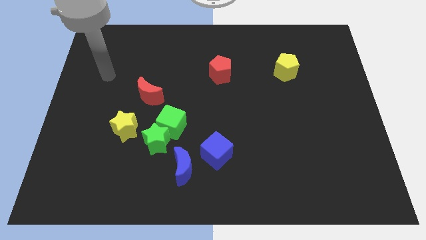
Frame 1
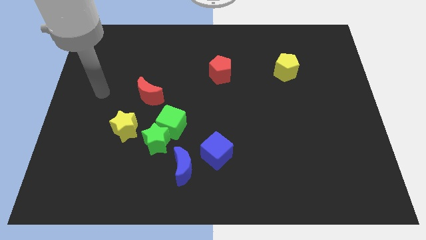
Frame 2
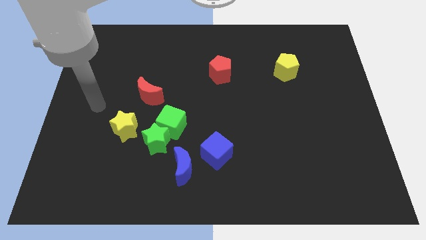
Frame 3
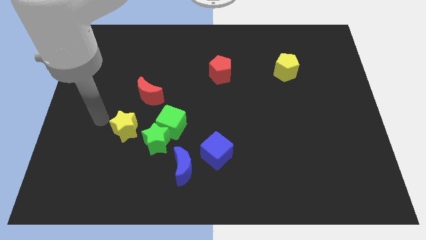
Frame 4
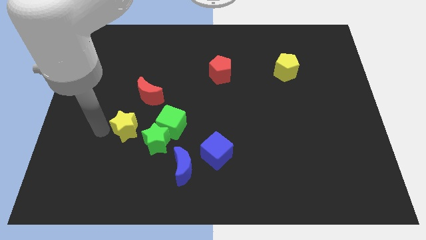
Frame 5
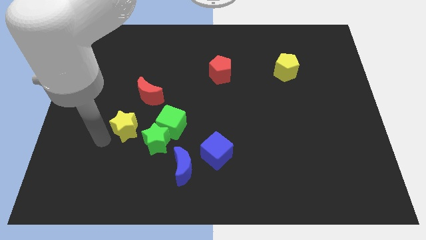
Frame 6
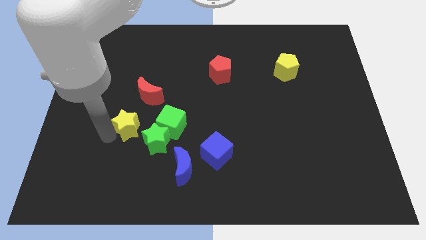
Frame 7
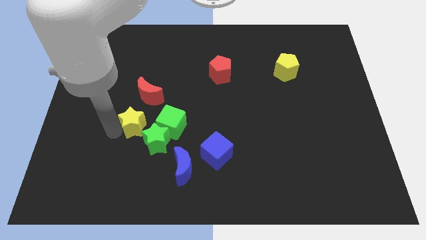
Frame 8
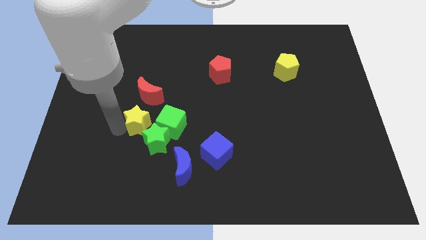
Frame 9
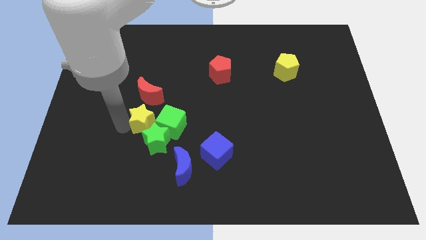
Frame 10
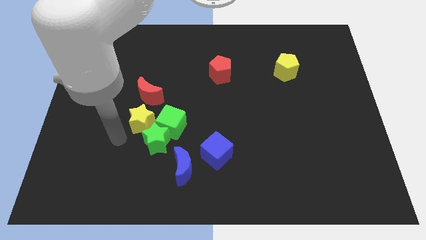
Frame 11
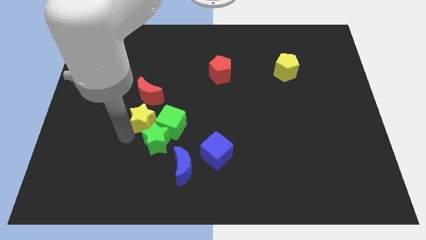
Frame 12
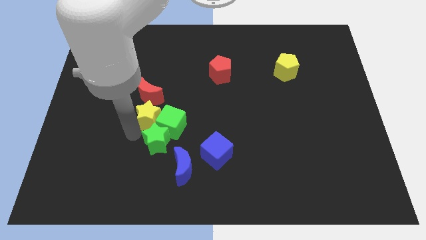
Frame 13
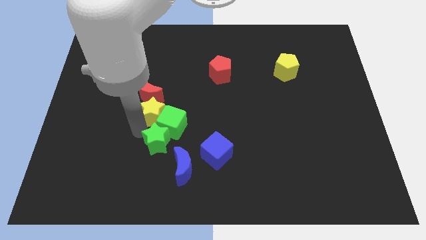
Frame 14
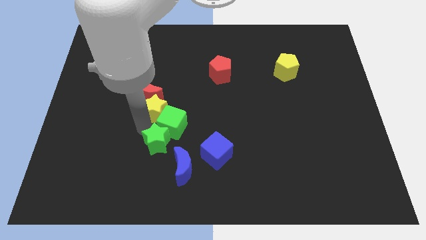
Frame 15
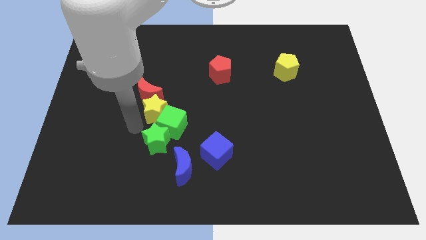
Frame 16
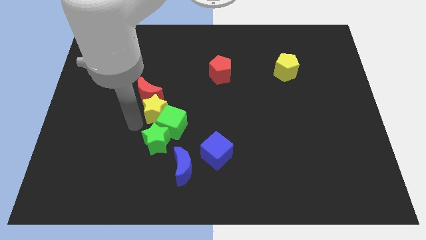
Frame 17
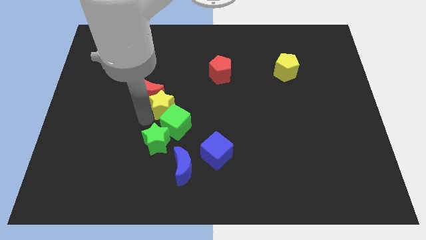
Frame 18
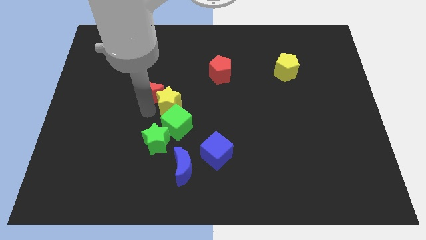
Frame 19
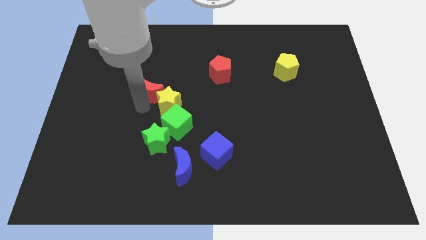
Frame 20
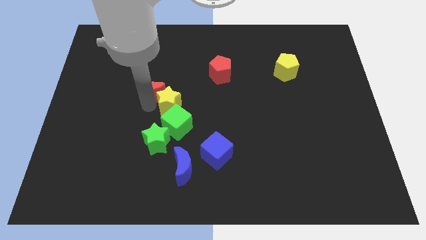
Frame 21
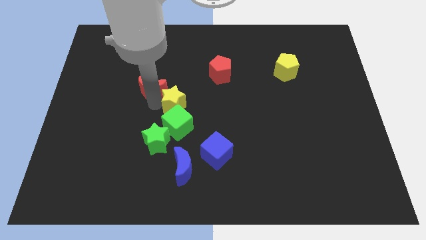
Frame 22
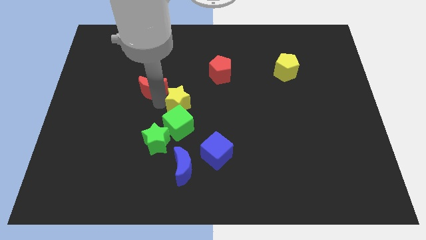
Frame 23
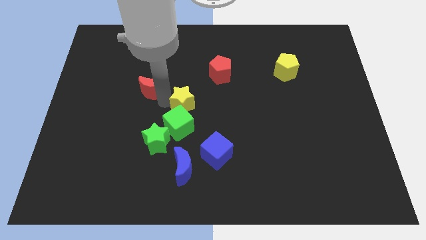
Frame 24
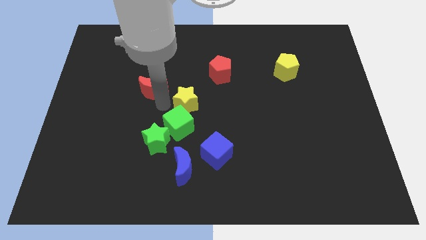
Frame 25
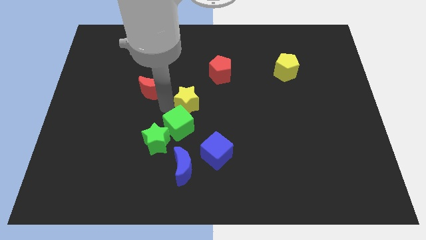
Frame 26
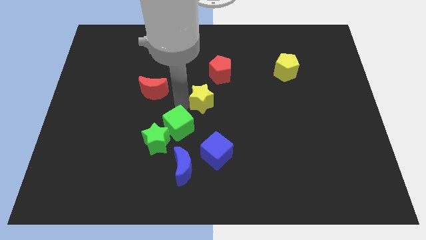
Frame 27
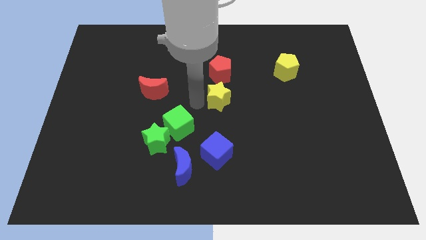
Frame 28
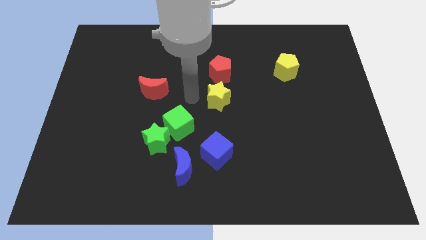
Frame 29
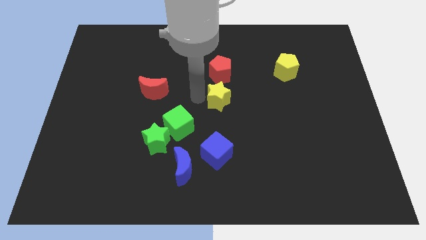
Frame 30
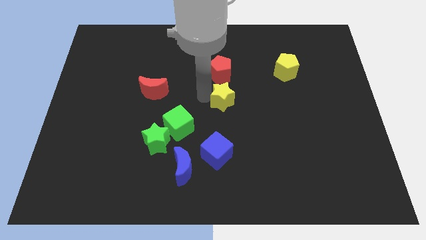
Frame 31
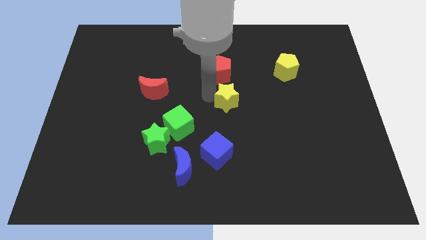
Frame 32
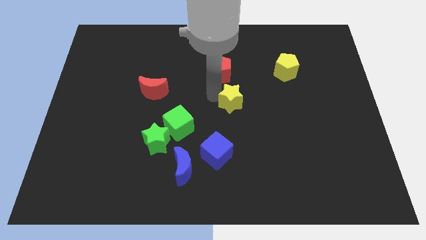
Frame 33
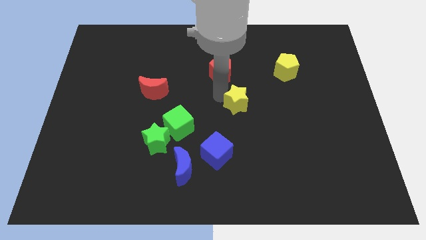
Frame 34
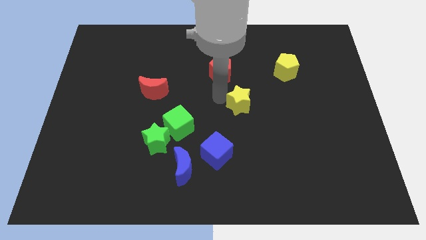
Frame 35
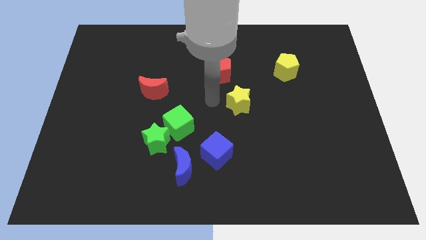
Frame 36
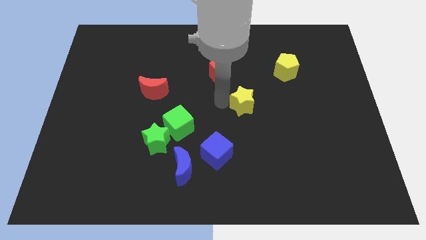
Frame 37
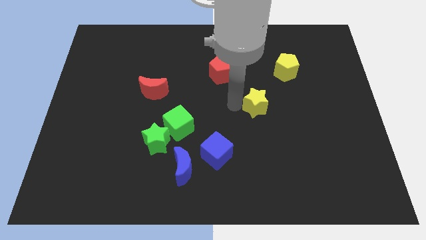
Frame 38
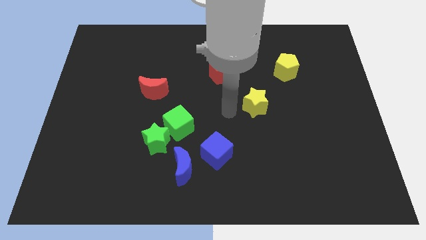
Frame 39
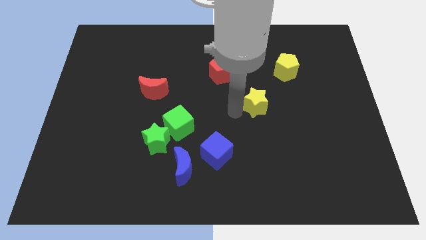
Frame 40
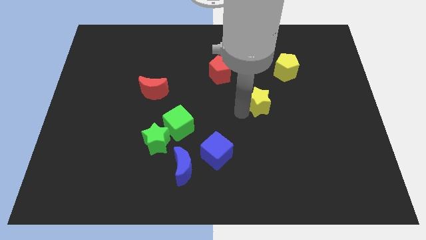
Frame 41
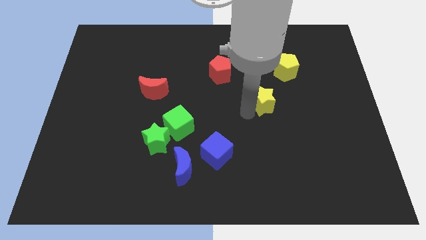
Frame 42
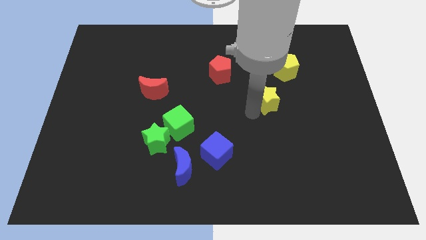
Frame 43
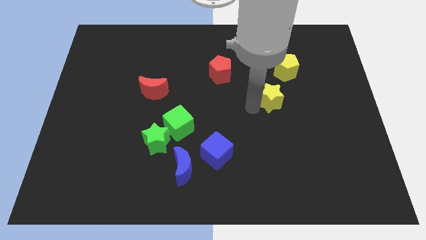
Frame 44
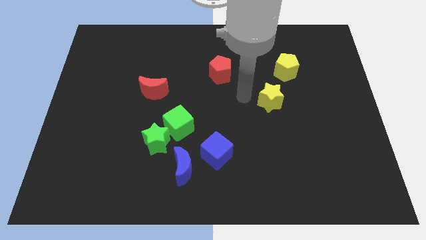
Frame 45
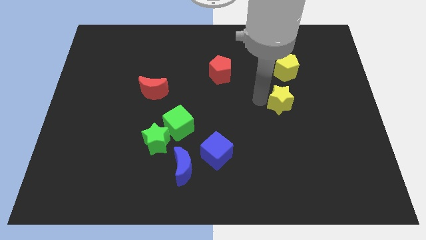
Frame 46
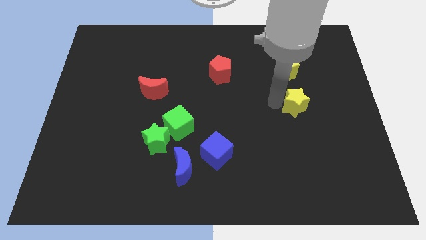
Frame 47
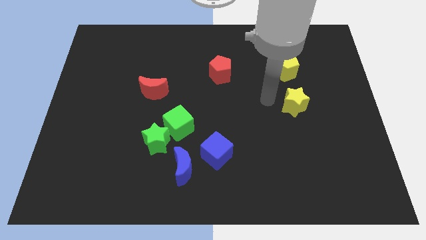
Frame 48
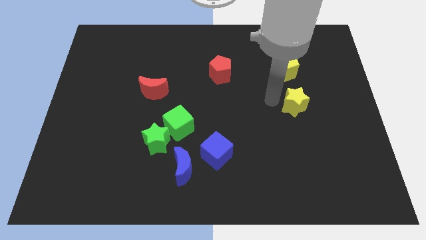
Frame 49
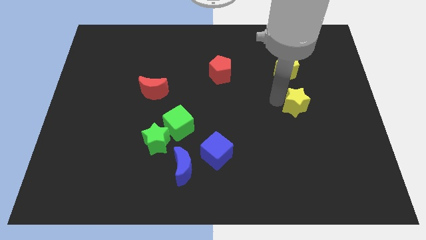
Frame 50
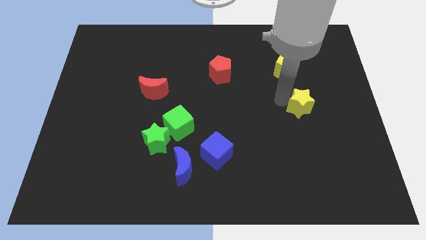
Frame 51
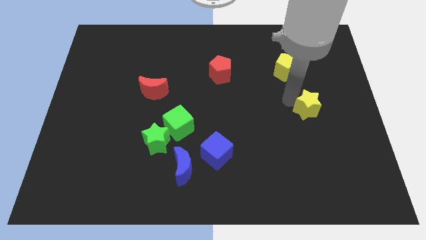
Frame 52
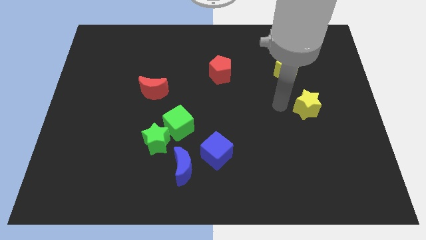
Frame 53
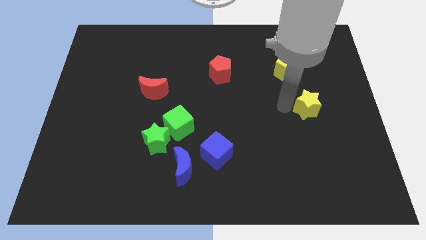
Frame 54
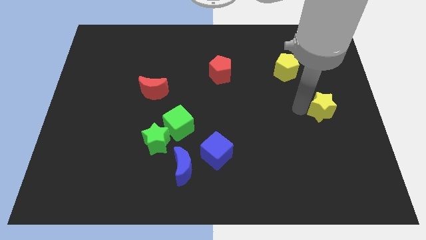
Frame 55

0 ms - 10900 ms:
put the yellow star to the right side

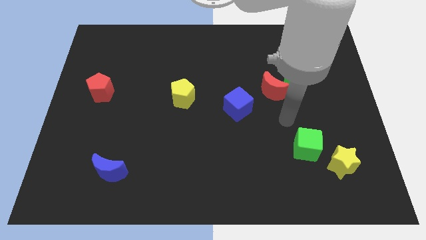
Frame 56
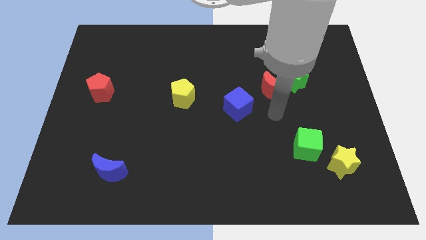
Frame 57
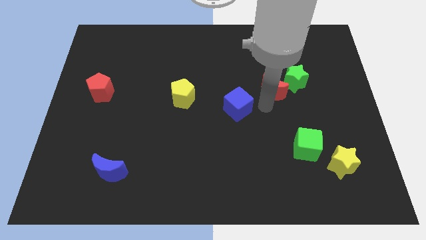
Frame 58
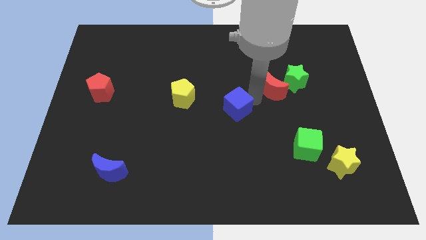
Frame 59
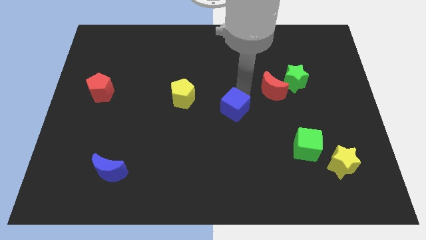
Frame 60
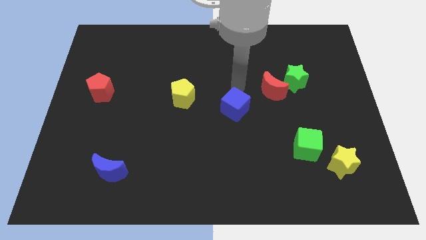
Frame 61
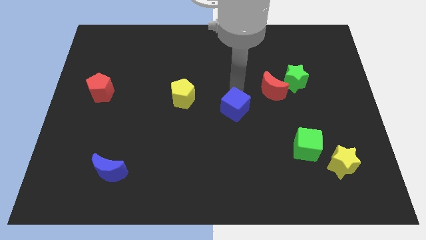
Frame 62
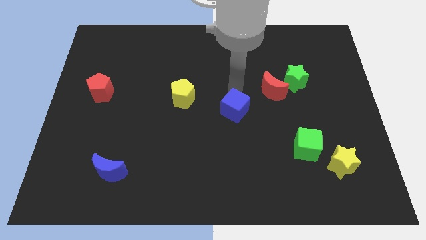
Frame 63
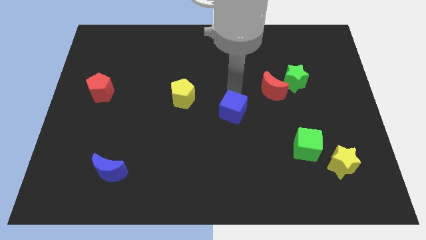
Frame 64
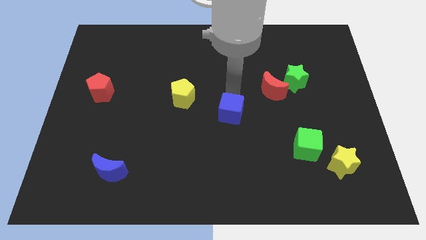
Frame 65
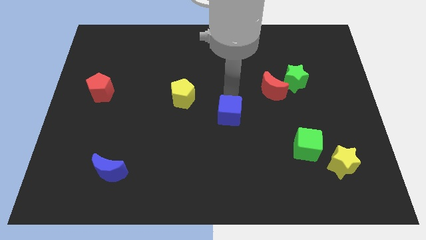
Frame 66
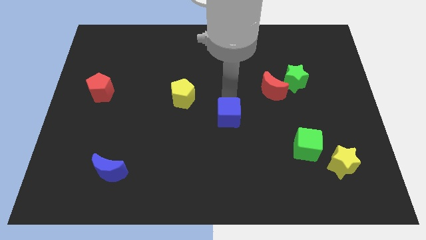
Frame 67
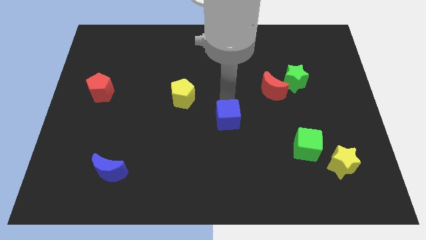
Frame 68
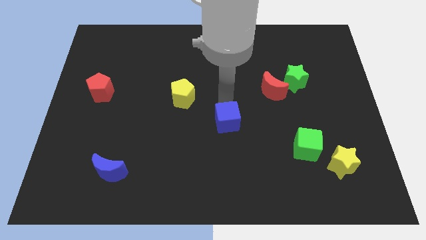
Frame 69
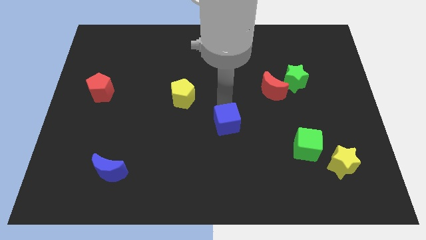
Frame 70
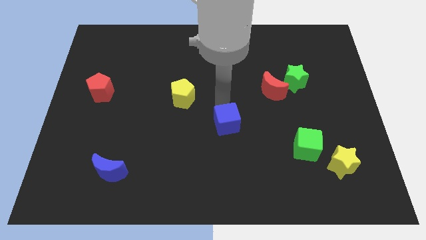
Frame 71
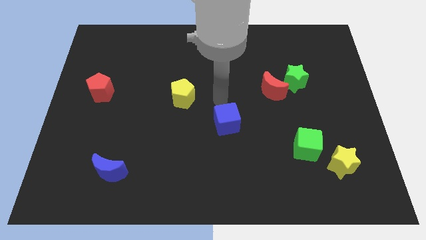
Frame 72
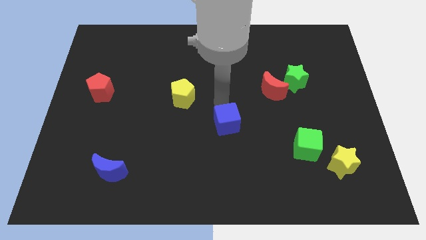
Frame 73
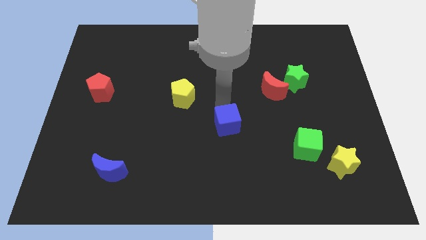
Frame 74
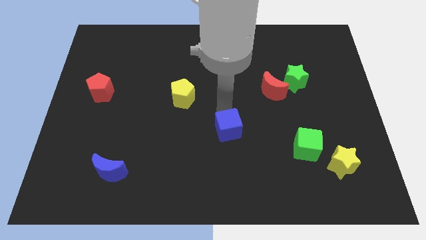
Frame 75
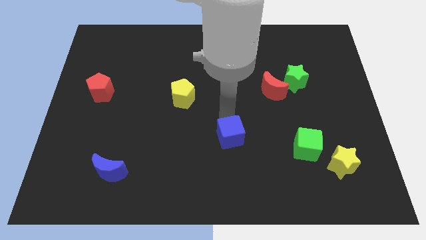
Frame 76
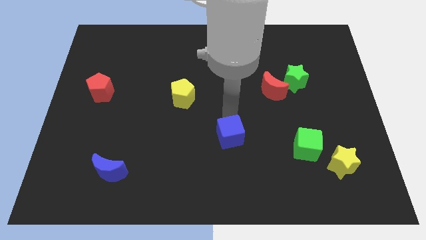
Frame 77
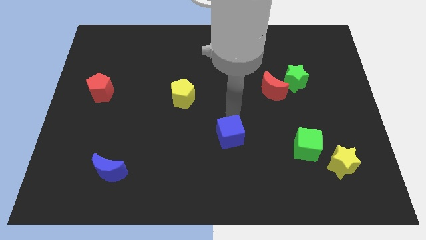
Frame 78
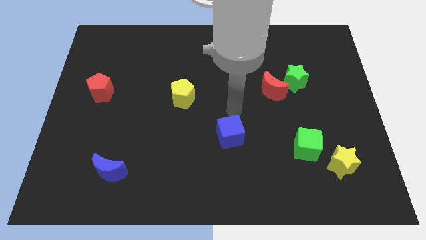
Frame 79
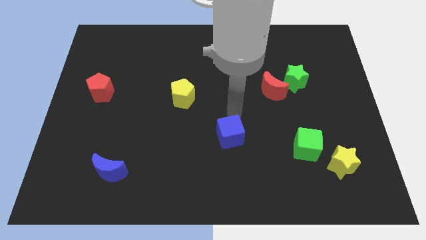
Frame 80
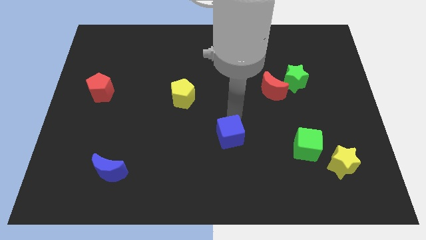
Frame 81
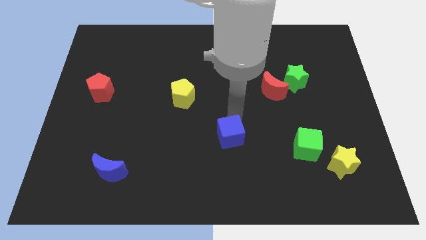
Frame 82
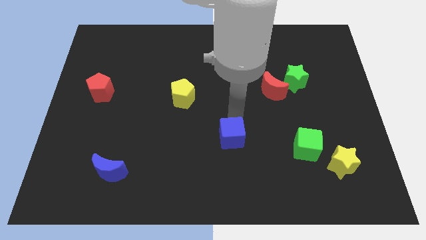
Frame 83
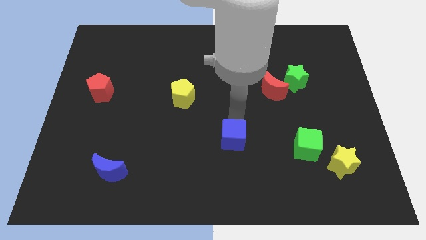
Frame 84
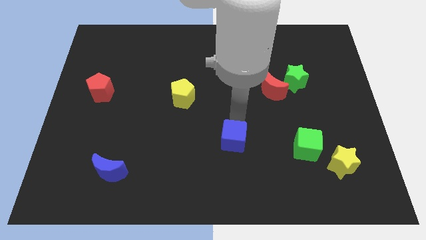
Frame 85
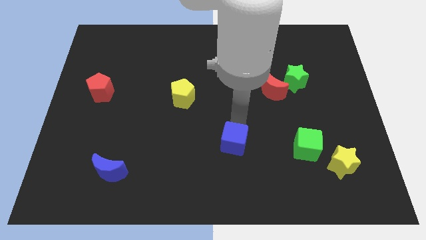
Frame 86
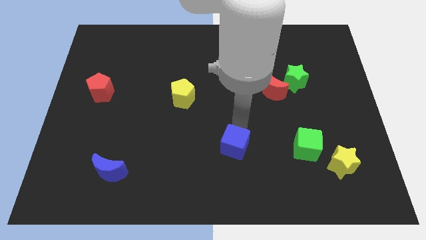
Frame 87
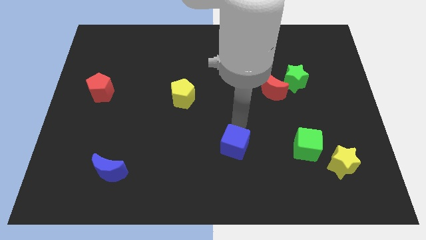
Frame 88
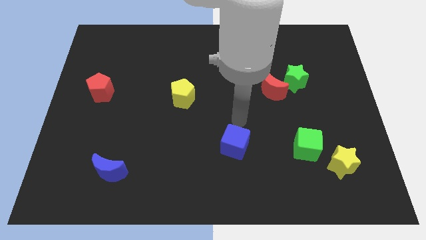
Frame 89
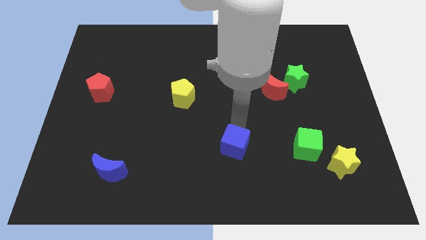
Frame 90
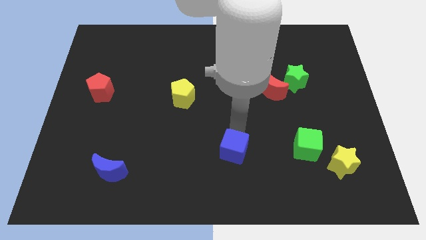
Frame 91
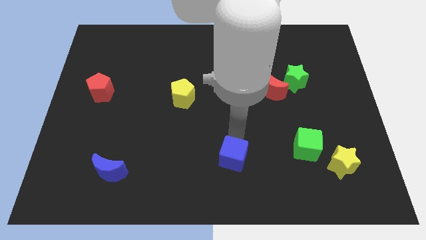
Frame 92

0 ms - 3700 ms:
push the blue cube to the bottom side
